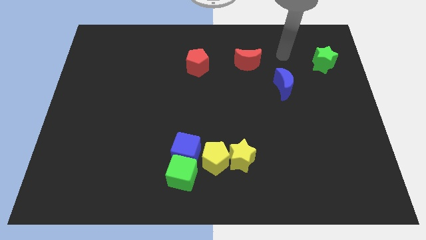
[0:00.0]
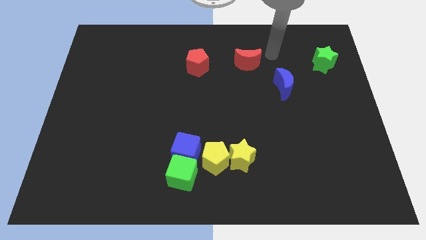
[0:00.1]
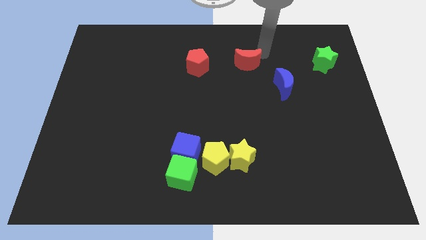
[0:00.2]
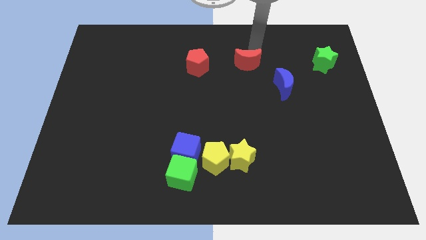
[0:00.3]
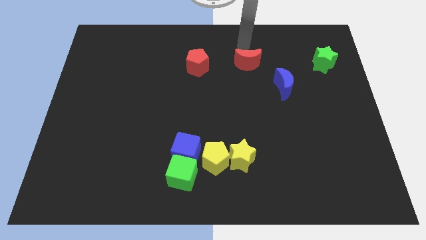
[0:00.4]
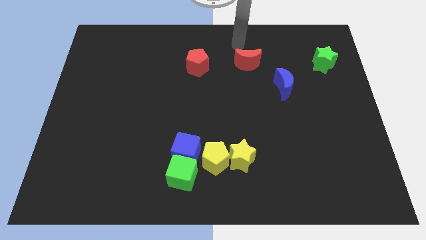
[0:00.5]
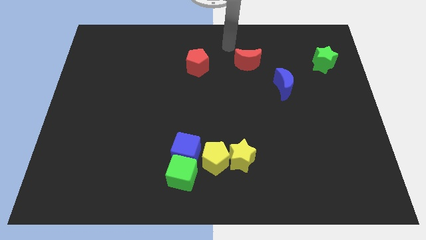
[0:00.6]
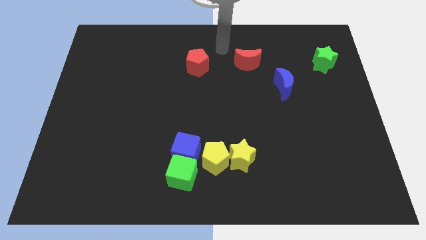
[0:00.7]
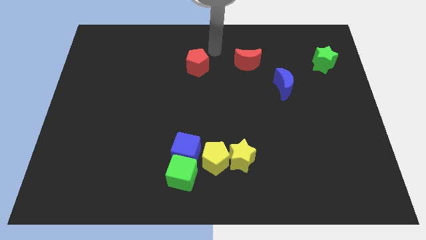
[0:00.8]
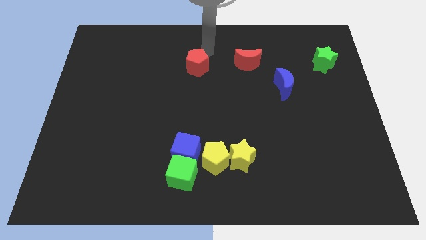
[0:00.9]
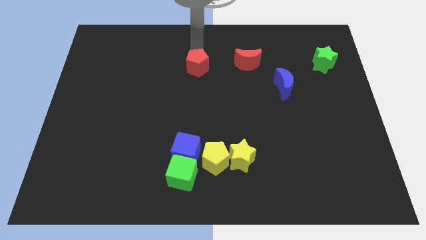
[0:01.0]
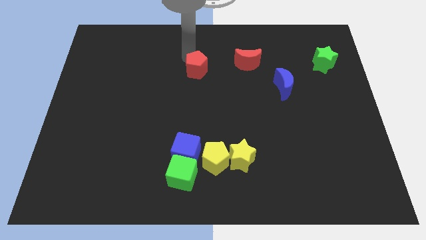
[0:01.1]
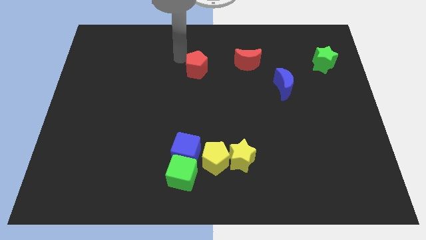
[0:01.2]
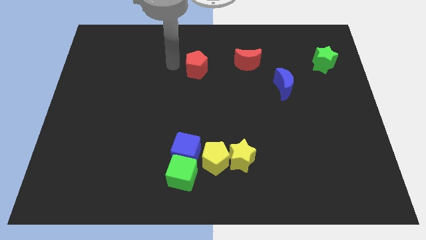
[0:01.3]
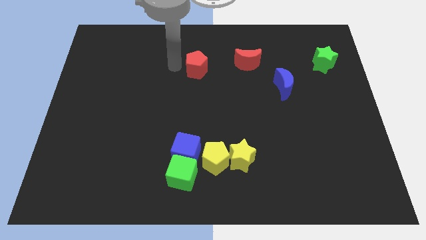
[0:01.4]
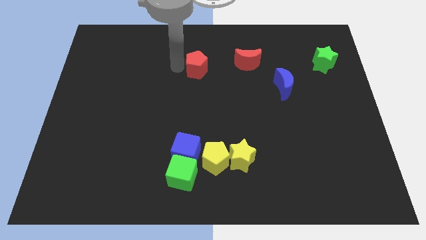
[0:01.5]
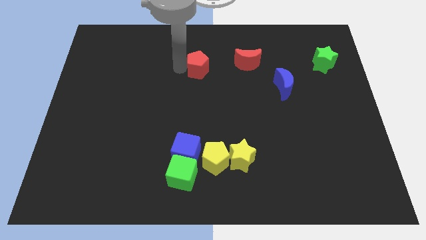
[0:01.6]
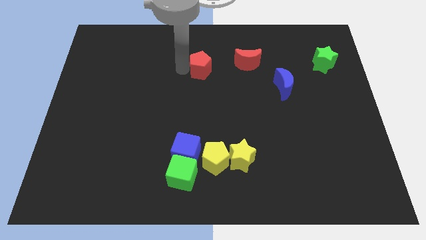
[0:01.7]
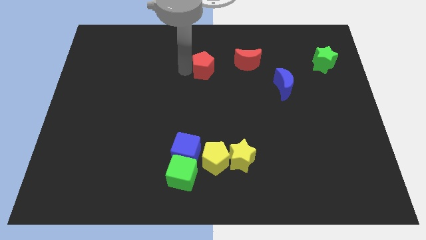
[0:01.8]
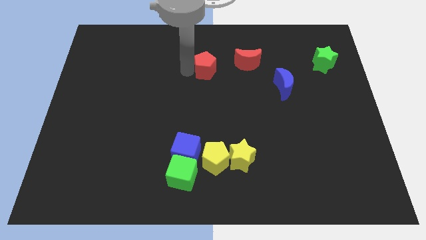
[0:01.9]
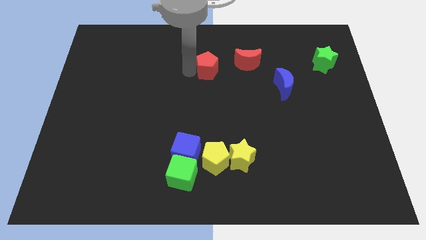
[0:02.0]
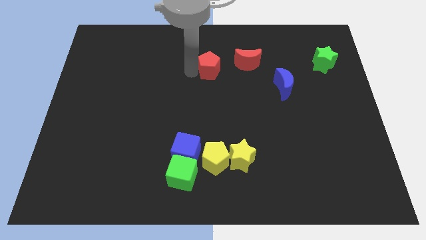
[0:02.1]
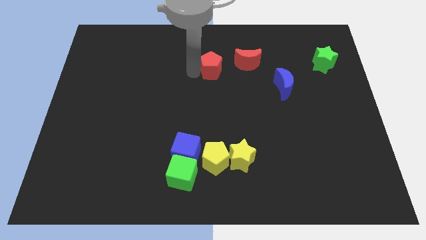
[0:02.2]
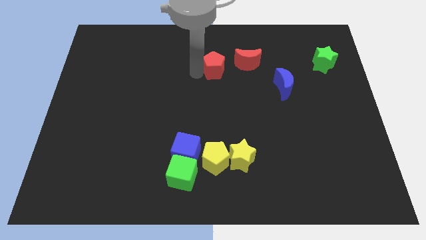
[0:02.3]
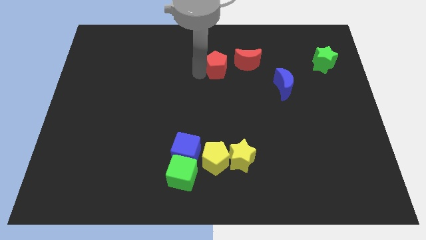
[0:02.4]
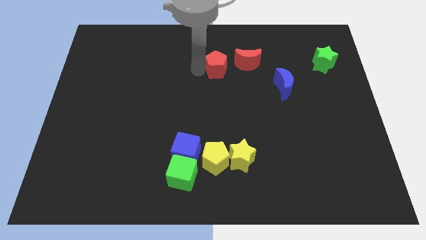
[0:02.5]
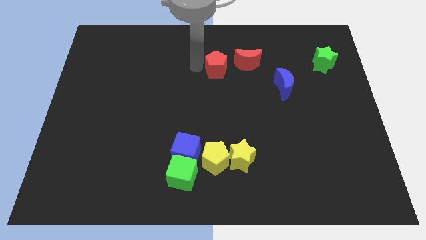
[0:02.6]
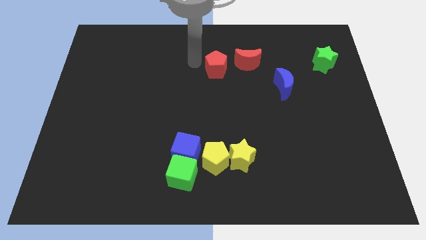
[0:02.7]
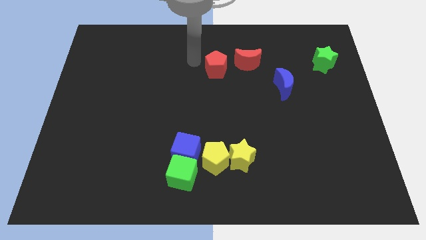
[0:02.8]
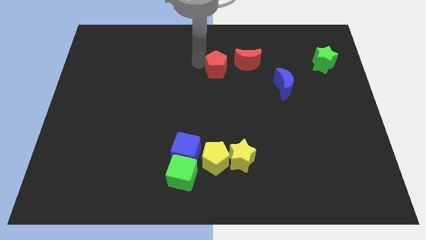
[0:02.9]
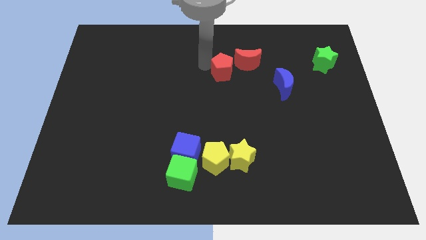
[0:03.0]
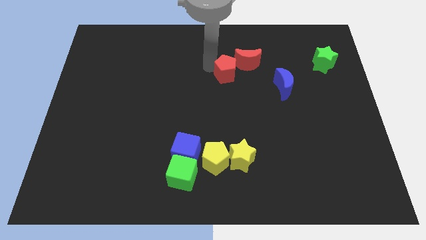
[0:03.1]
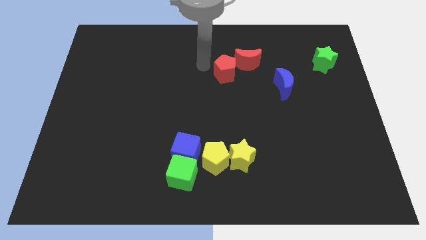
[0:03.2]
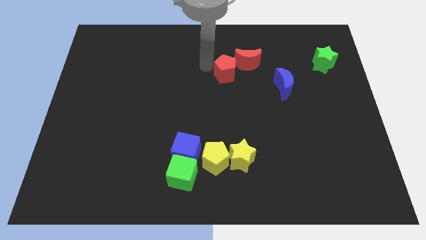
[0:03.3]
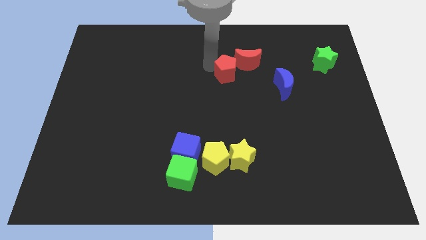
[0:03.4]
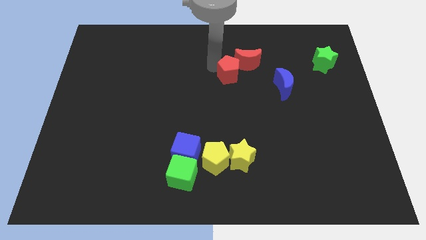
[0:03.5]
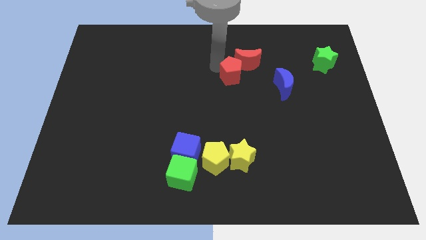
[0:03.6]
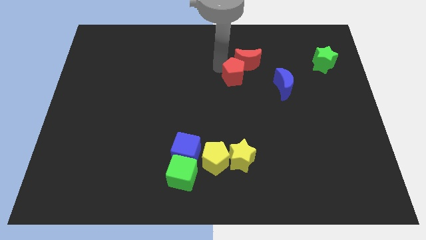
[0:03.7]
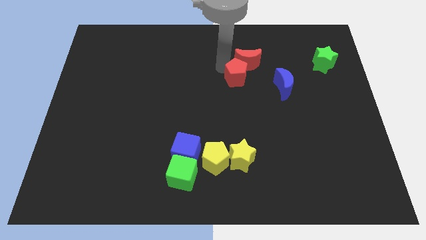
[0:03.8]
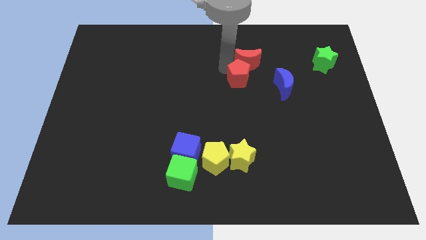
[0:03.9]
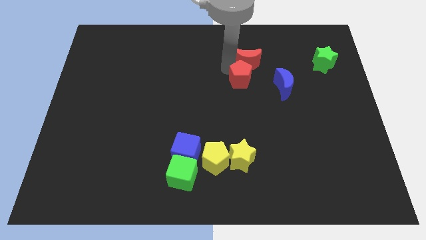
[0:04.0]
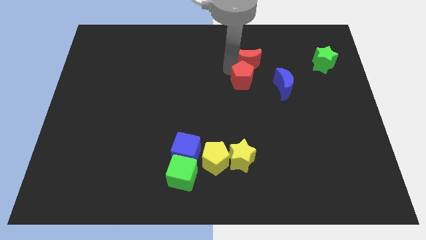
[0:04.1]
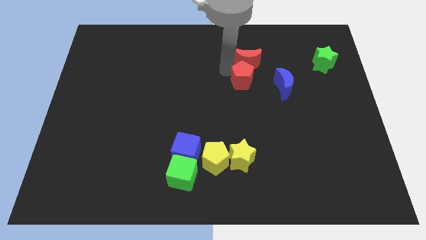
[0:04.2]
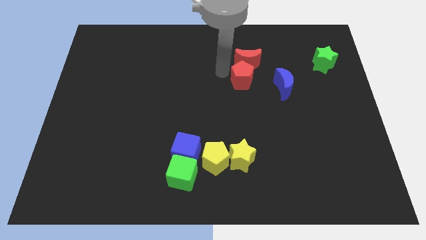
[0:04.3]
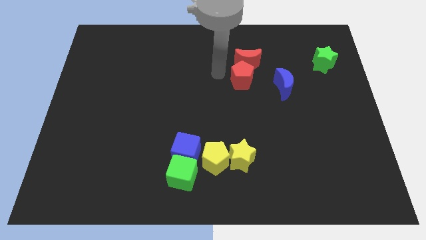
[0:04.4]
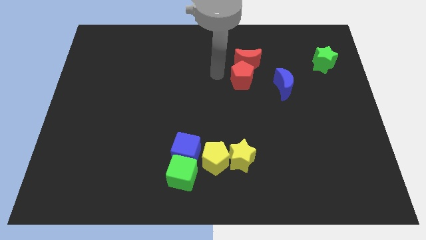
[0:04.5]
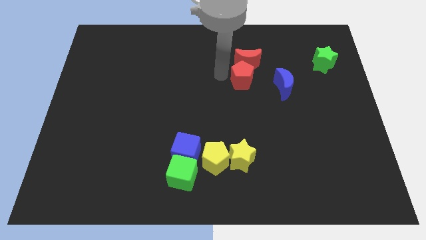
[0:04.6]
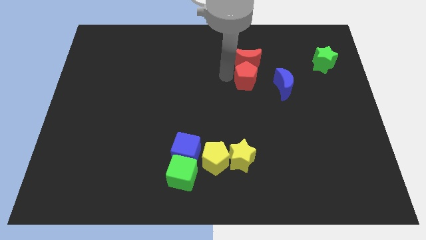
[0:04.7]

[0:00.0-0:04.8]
slide the red pentagon diagonally down and to the right of the red moon

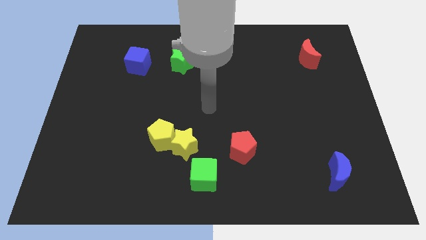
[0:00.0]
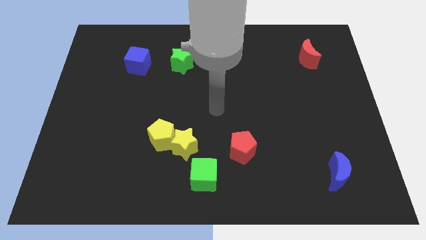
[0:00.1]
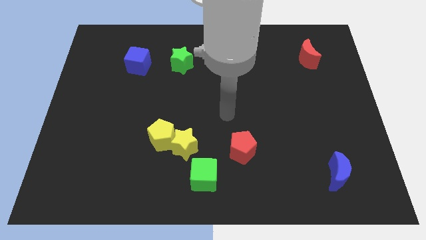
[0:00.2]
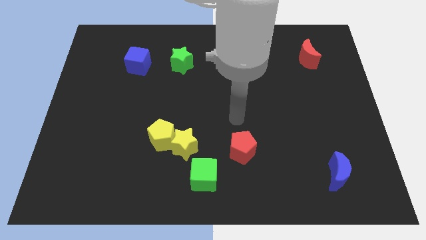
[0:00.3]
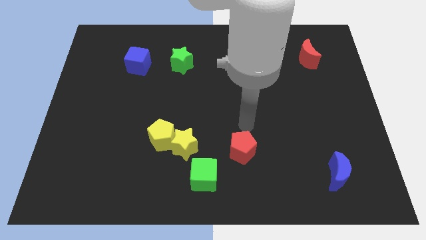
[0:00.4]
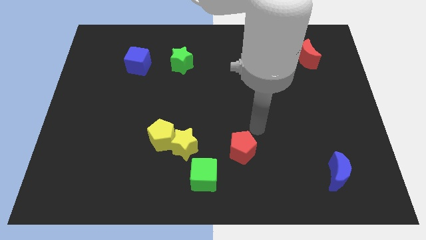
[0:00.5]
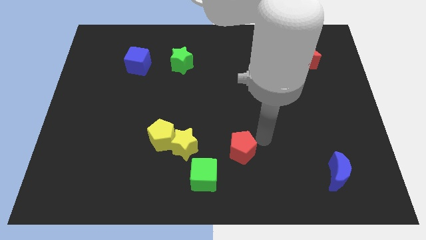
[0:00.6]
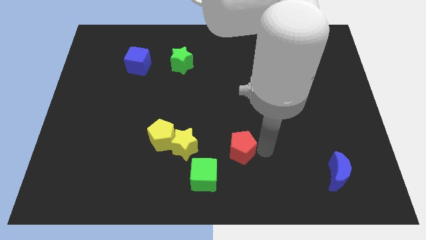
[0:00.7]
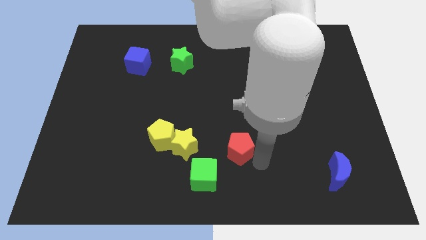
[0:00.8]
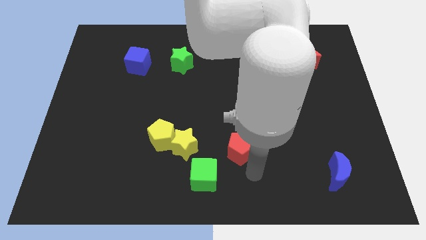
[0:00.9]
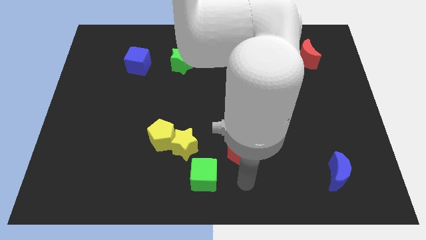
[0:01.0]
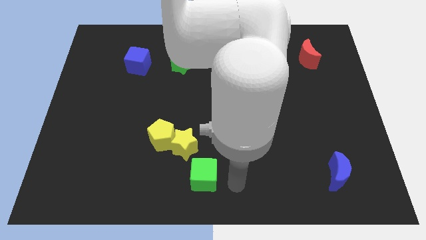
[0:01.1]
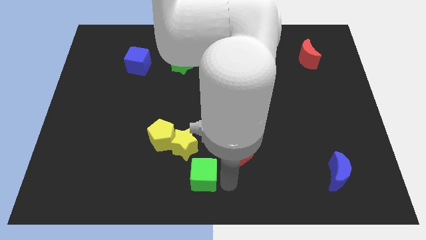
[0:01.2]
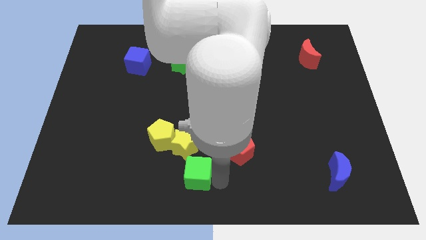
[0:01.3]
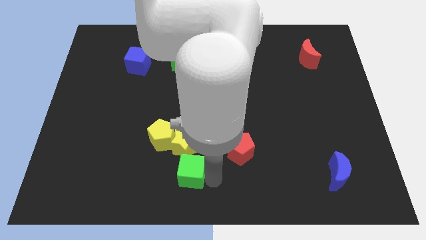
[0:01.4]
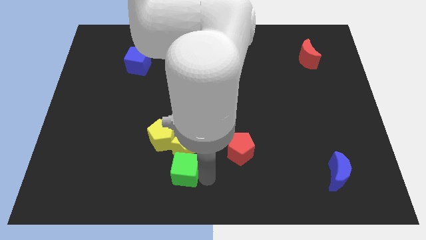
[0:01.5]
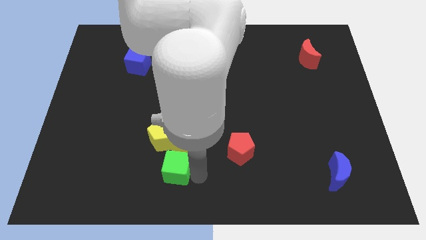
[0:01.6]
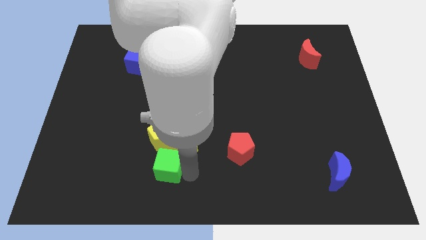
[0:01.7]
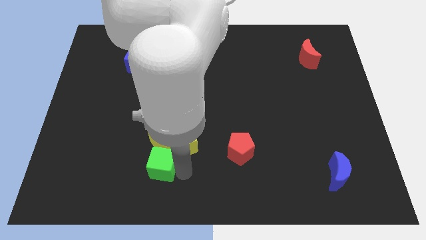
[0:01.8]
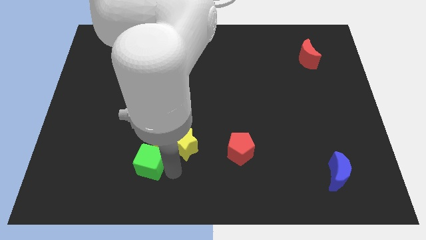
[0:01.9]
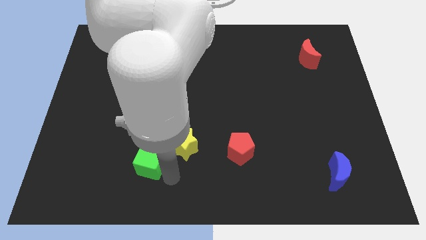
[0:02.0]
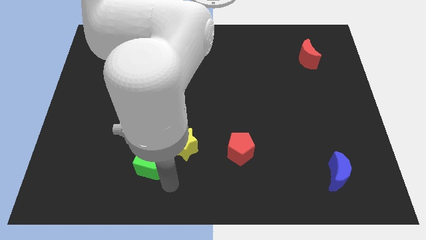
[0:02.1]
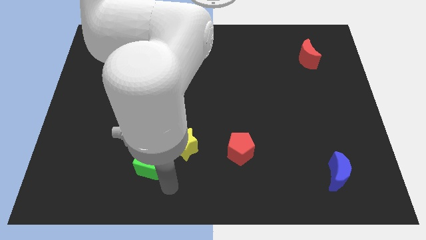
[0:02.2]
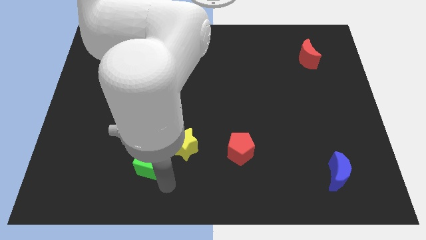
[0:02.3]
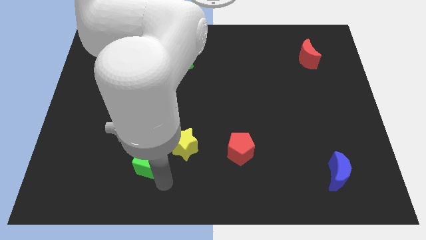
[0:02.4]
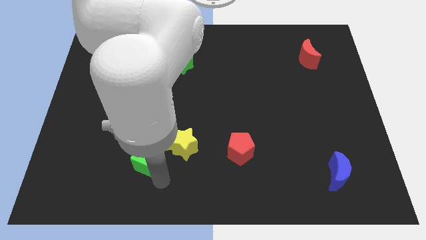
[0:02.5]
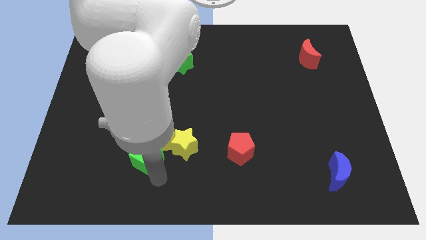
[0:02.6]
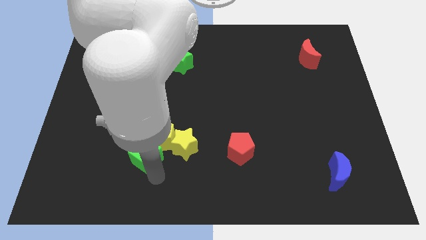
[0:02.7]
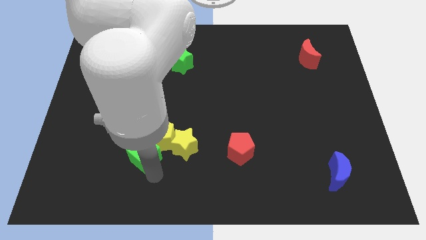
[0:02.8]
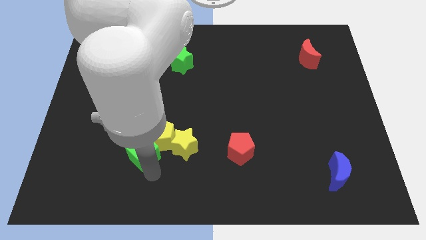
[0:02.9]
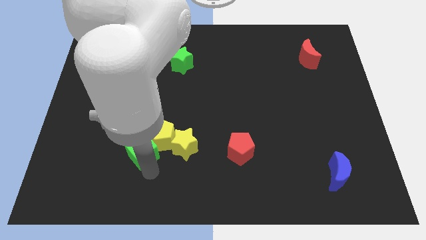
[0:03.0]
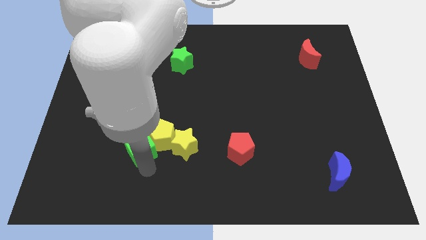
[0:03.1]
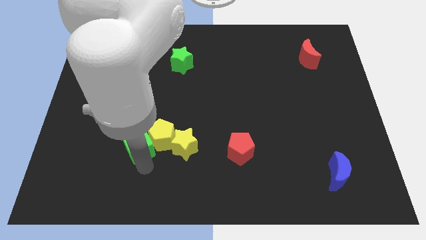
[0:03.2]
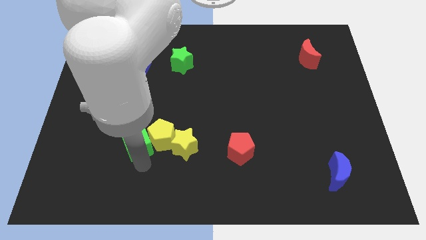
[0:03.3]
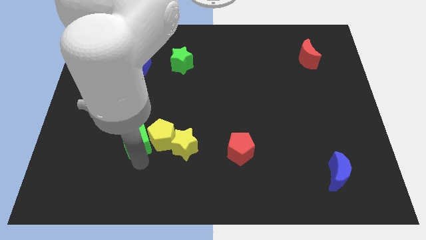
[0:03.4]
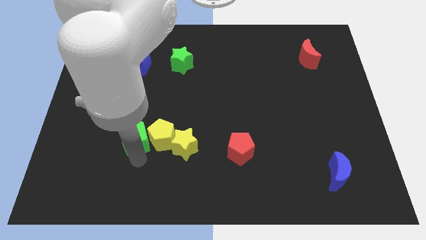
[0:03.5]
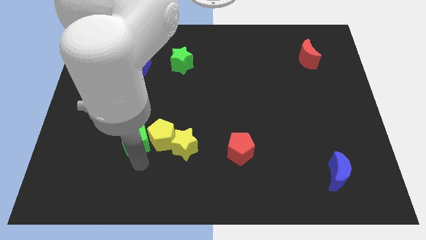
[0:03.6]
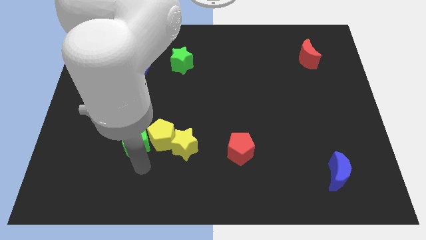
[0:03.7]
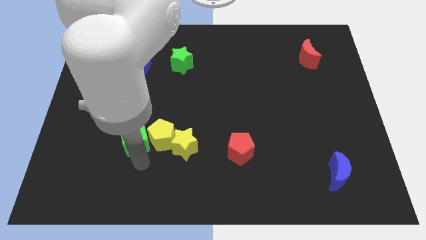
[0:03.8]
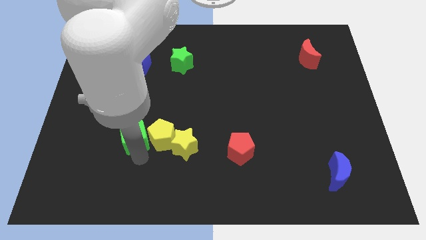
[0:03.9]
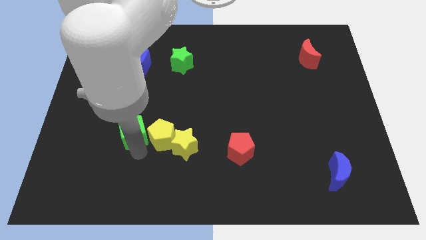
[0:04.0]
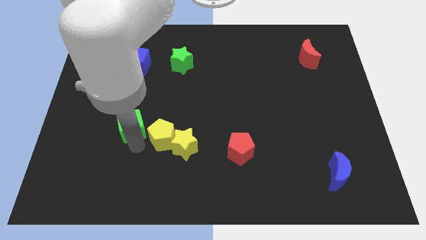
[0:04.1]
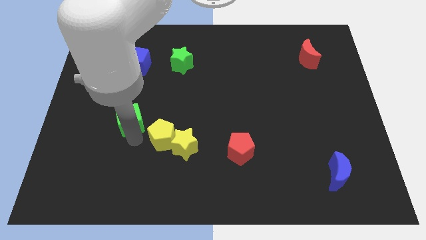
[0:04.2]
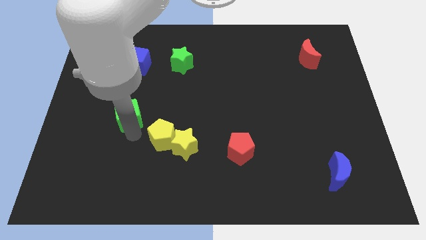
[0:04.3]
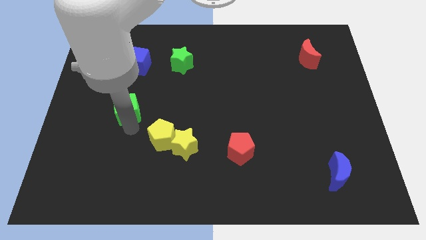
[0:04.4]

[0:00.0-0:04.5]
move the green cube to the bottom side of the blue cube
